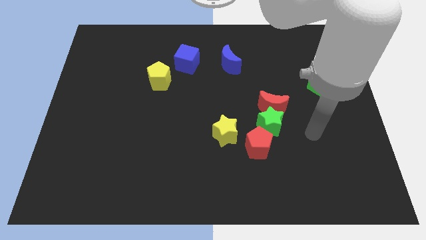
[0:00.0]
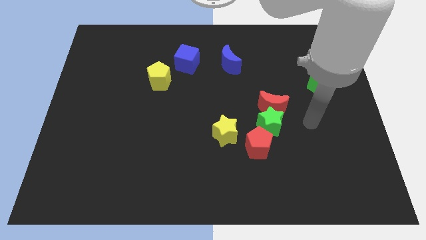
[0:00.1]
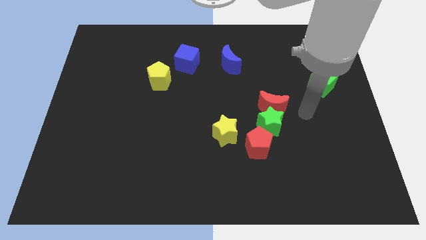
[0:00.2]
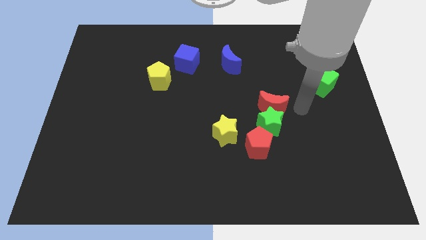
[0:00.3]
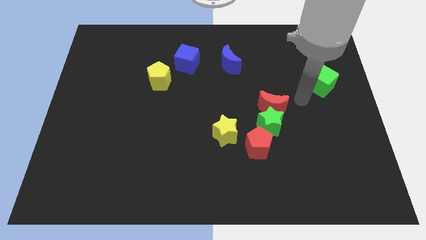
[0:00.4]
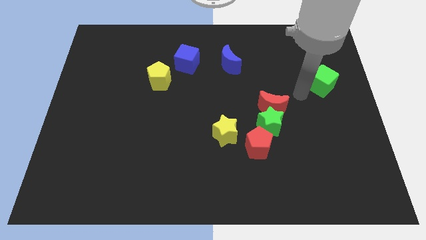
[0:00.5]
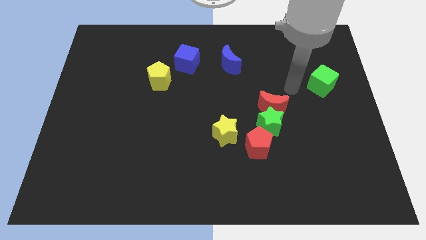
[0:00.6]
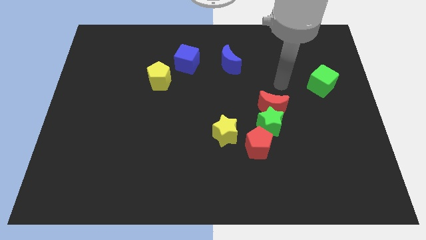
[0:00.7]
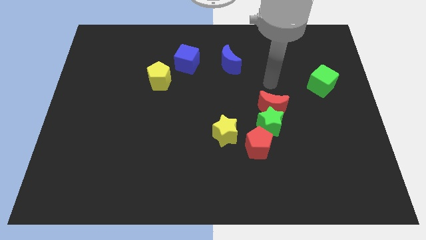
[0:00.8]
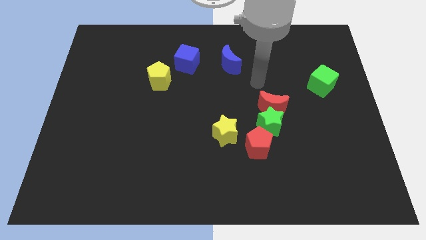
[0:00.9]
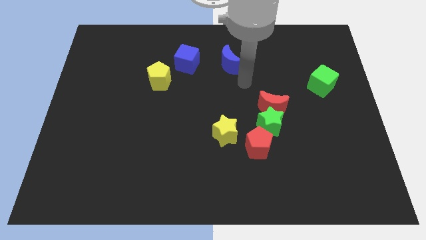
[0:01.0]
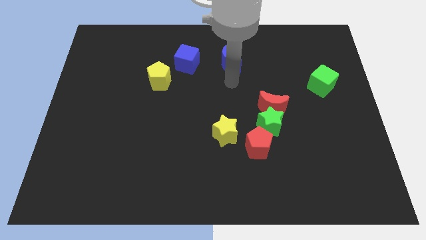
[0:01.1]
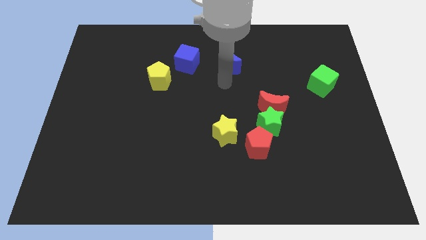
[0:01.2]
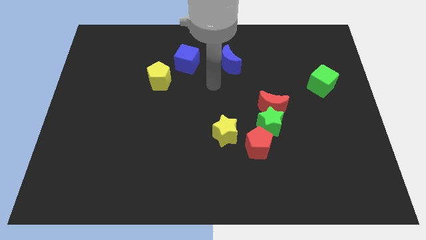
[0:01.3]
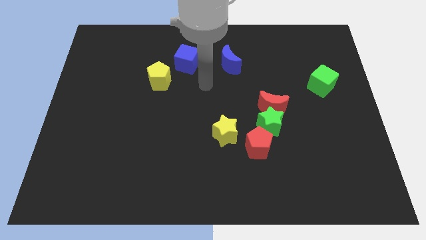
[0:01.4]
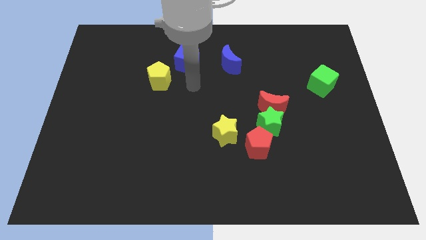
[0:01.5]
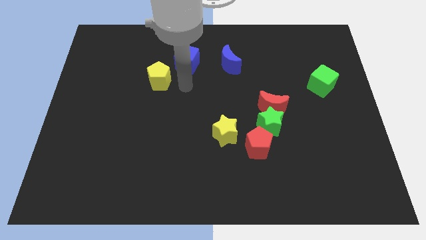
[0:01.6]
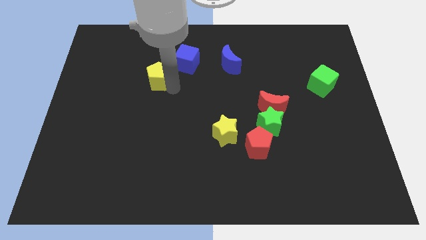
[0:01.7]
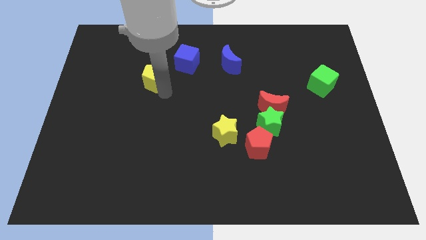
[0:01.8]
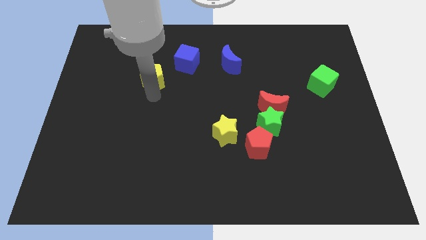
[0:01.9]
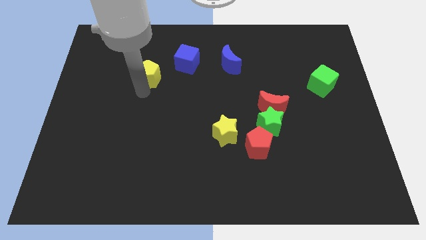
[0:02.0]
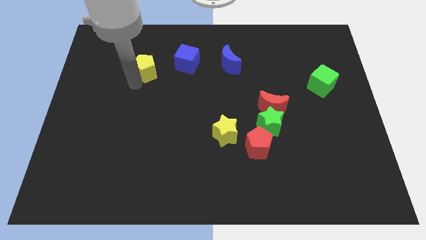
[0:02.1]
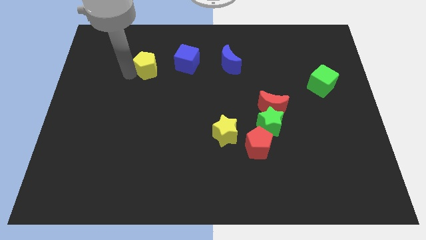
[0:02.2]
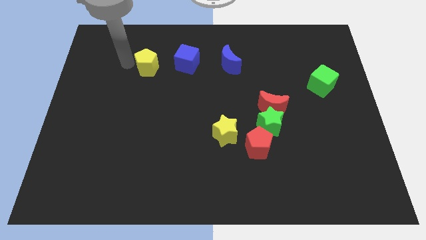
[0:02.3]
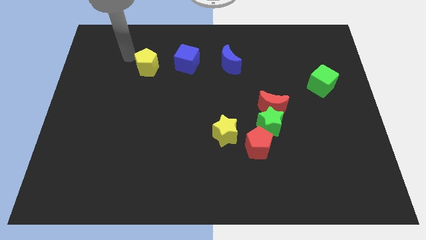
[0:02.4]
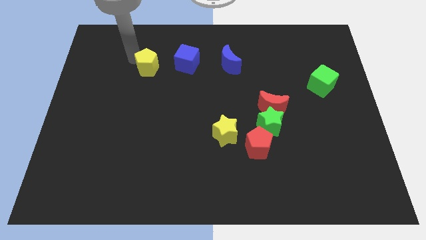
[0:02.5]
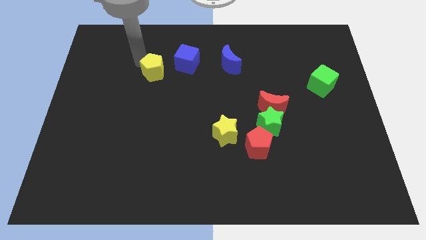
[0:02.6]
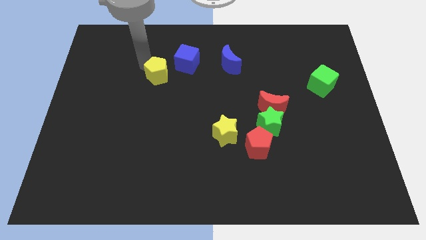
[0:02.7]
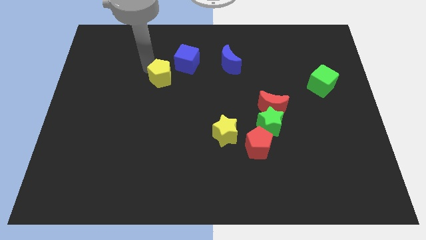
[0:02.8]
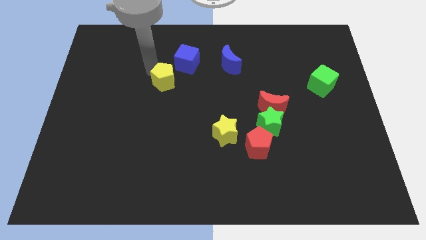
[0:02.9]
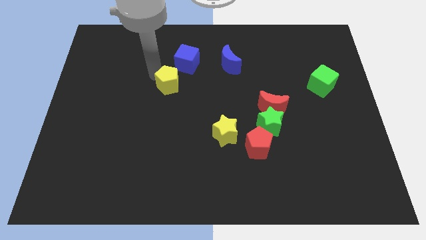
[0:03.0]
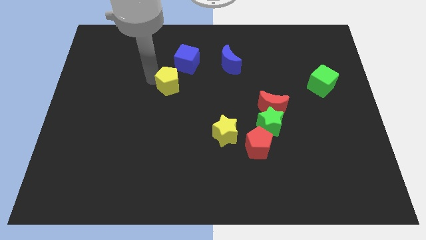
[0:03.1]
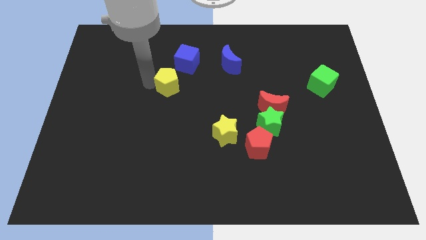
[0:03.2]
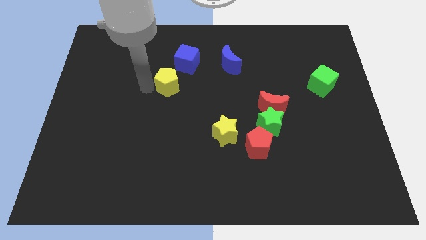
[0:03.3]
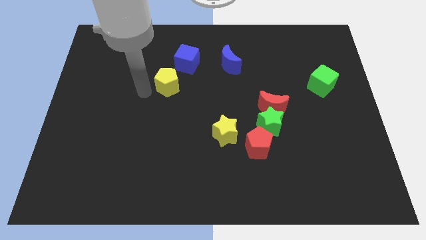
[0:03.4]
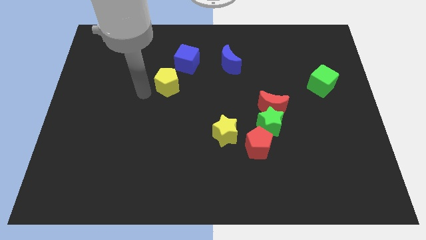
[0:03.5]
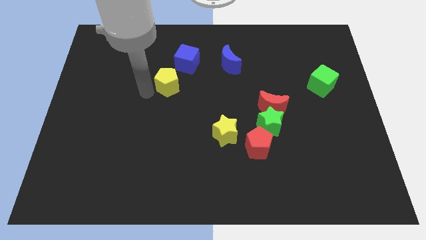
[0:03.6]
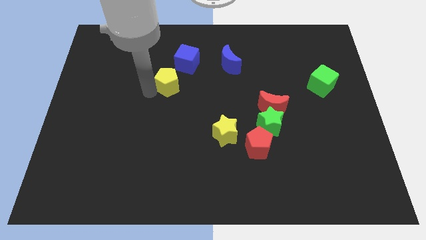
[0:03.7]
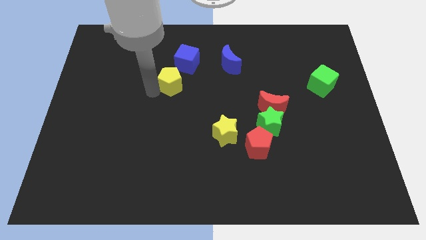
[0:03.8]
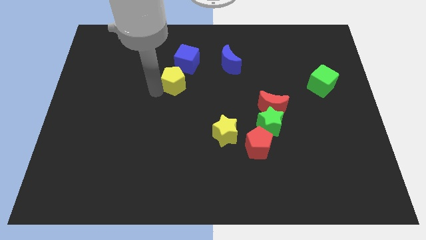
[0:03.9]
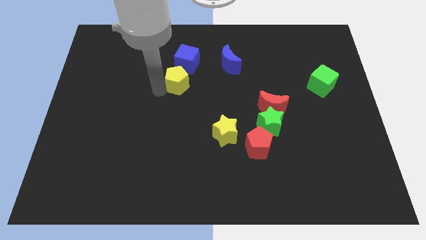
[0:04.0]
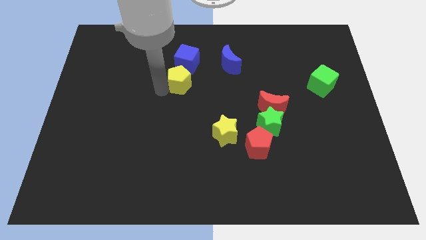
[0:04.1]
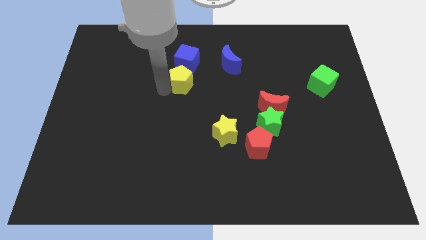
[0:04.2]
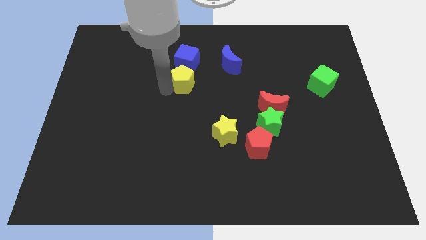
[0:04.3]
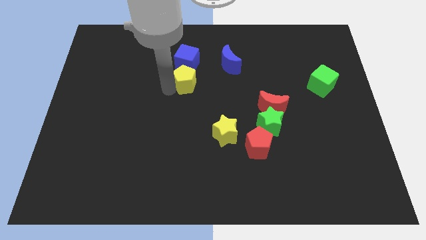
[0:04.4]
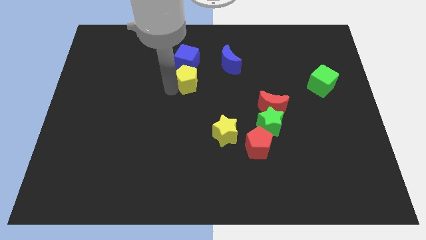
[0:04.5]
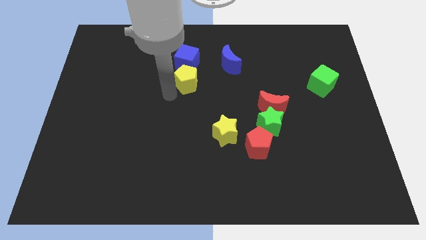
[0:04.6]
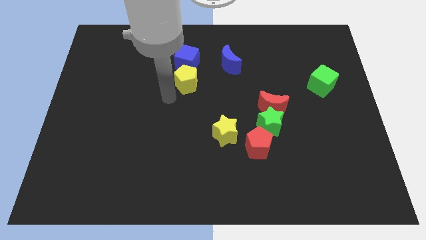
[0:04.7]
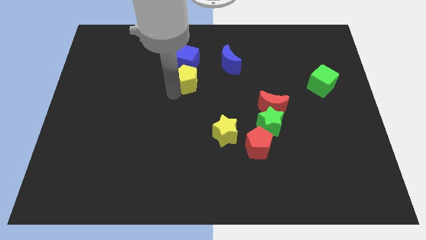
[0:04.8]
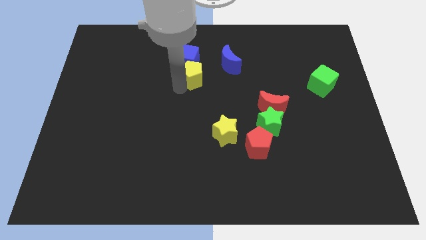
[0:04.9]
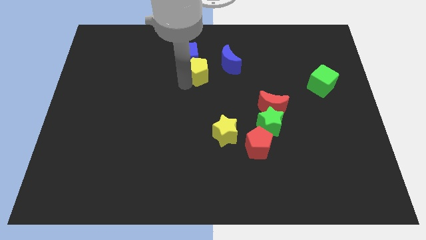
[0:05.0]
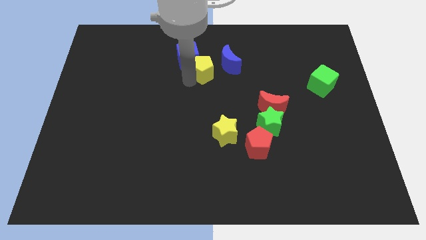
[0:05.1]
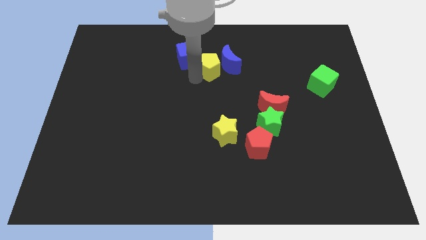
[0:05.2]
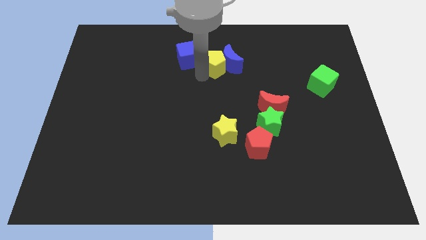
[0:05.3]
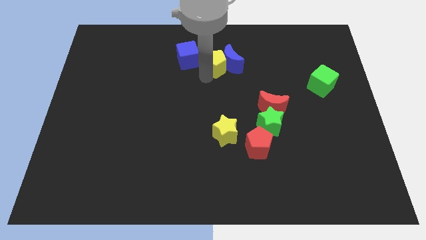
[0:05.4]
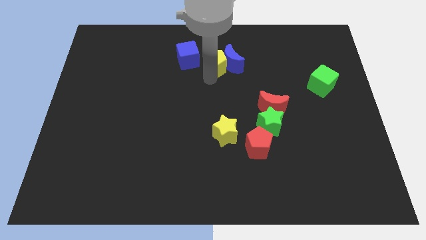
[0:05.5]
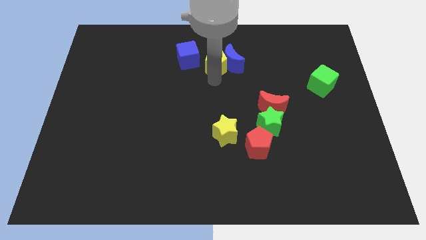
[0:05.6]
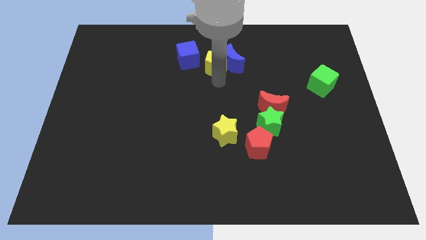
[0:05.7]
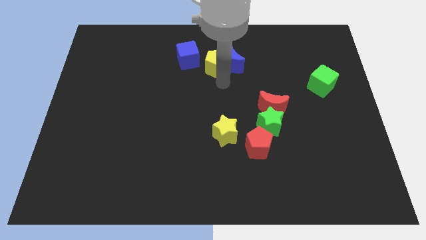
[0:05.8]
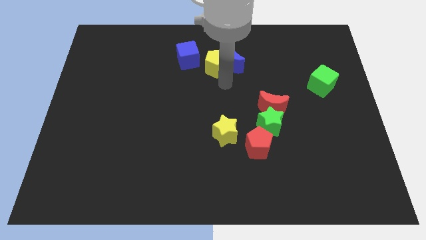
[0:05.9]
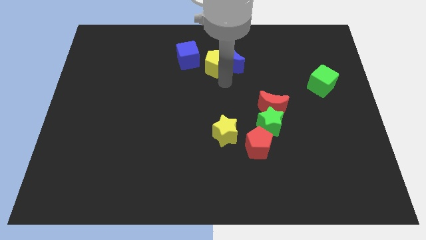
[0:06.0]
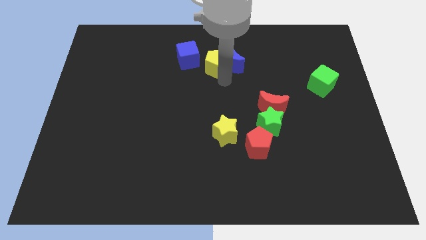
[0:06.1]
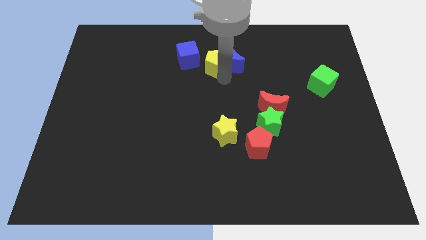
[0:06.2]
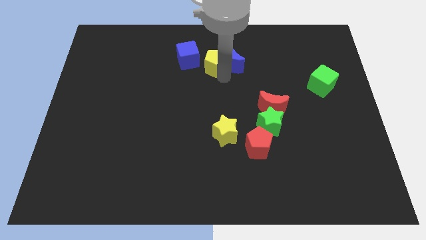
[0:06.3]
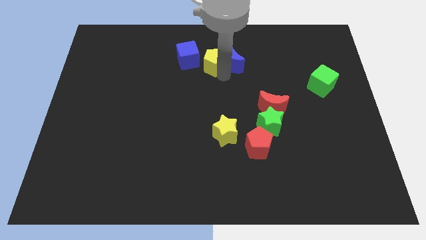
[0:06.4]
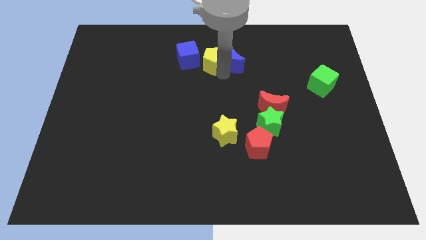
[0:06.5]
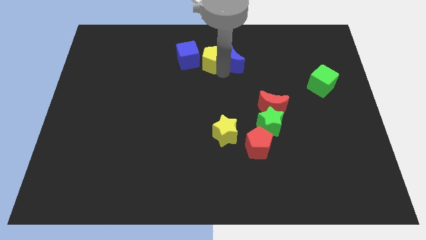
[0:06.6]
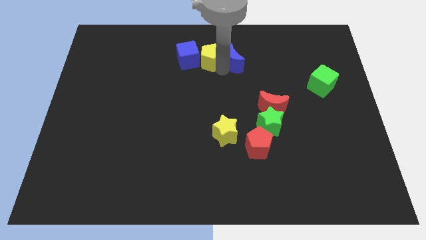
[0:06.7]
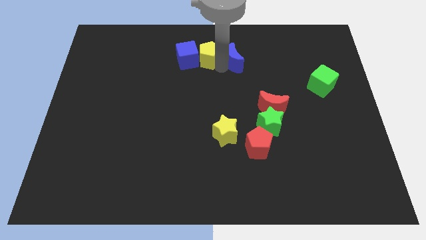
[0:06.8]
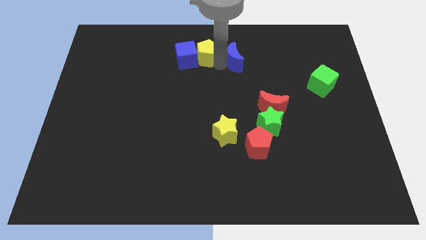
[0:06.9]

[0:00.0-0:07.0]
slide the yellow pentagon to the top side
